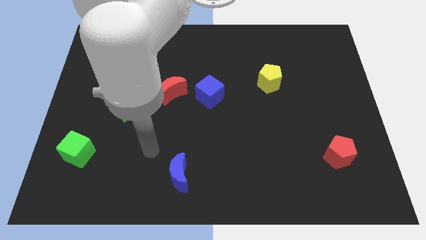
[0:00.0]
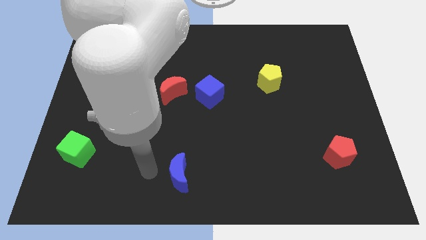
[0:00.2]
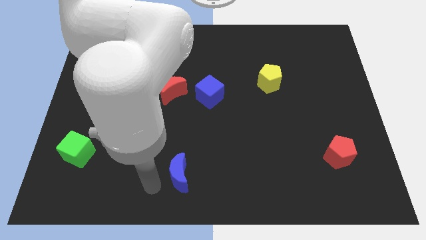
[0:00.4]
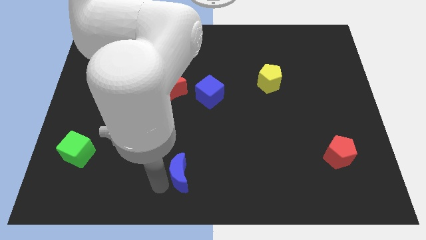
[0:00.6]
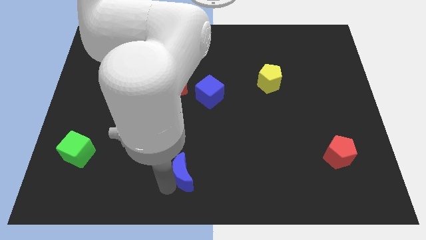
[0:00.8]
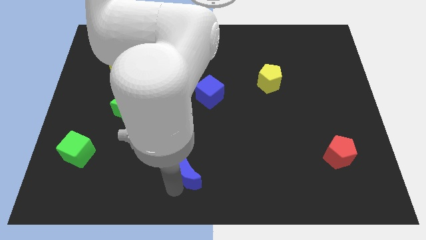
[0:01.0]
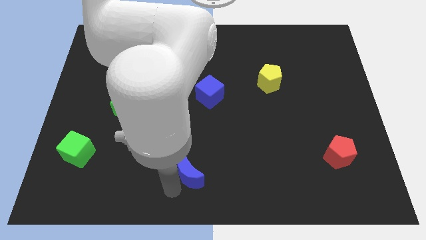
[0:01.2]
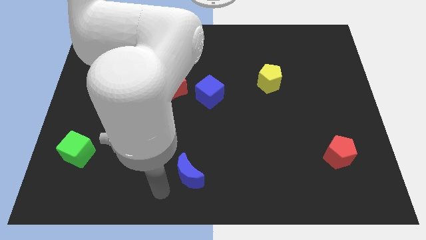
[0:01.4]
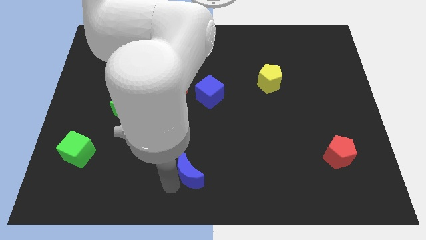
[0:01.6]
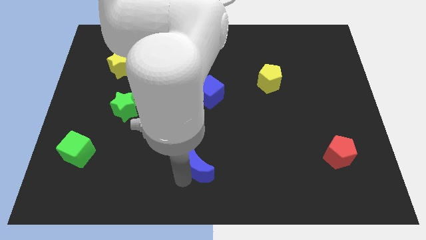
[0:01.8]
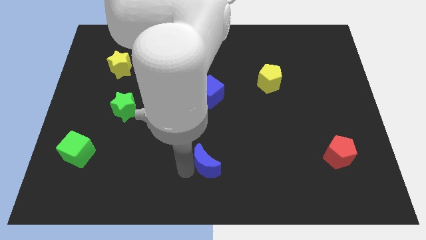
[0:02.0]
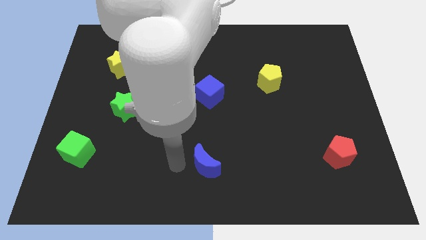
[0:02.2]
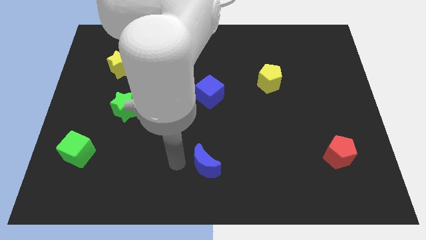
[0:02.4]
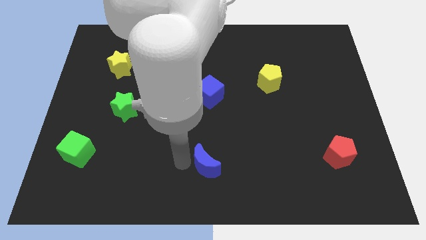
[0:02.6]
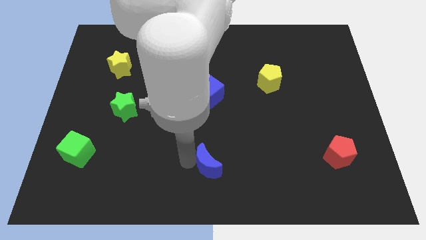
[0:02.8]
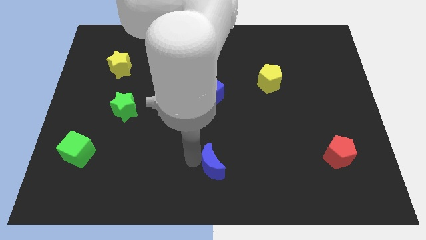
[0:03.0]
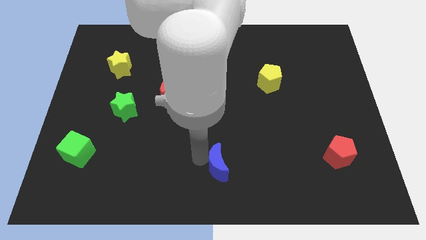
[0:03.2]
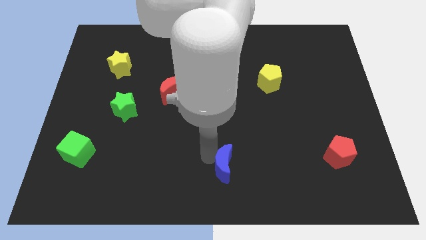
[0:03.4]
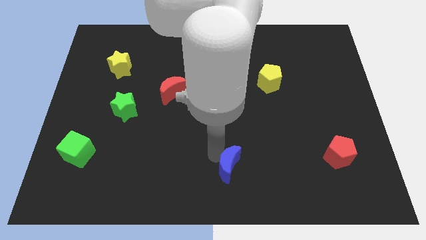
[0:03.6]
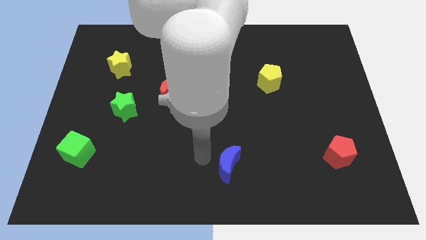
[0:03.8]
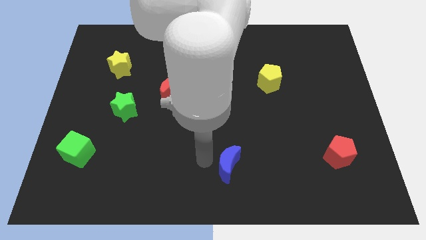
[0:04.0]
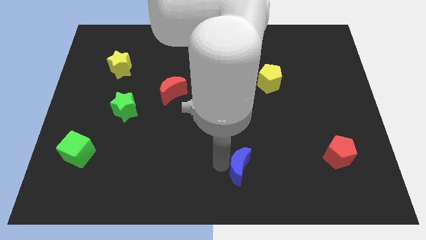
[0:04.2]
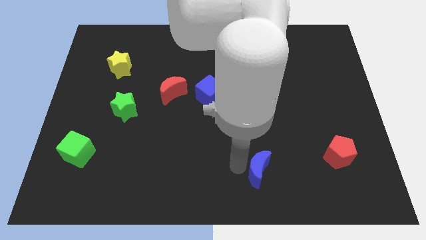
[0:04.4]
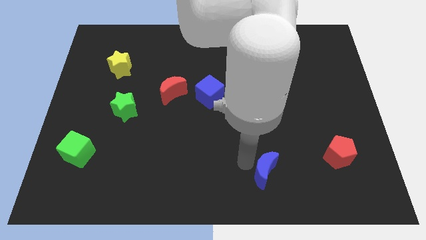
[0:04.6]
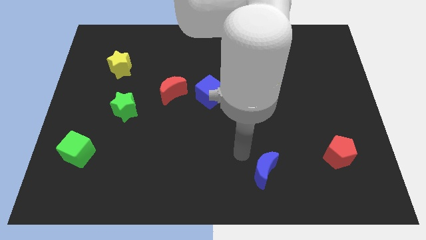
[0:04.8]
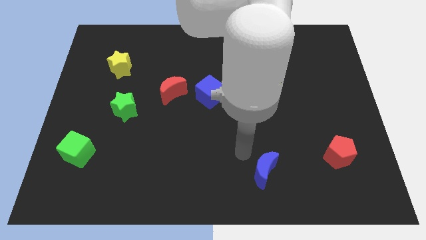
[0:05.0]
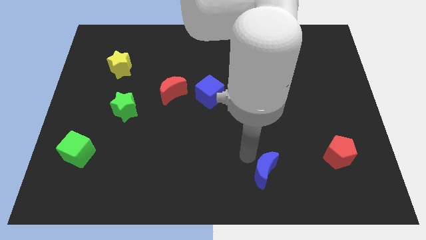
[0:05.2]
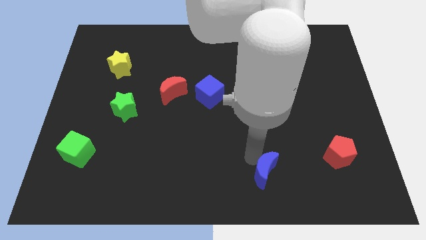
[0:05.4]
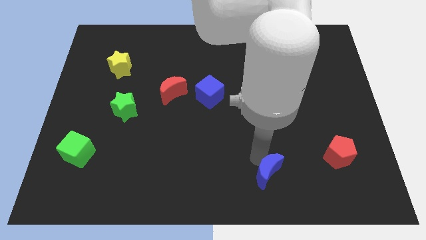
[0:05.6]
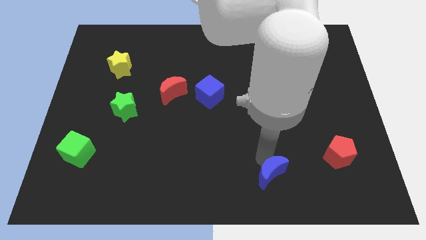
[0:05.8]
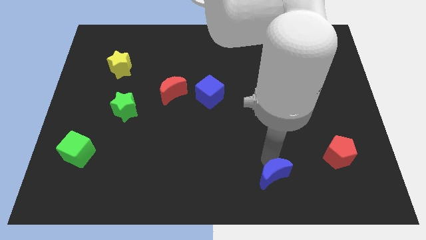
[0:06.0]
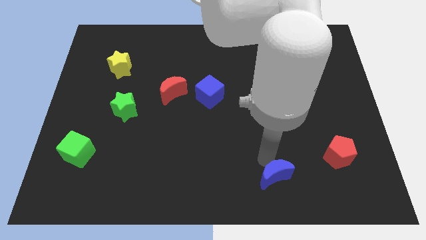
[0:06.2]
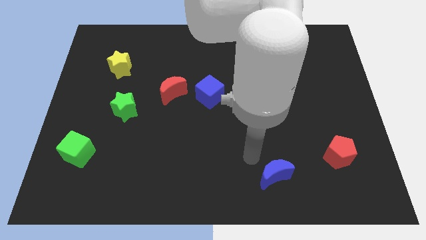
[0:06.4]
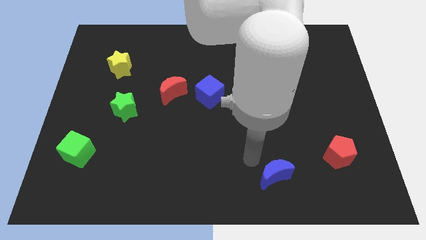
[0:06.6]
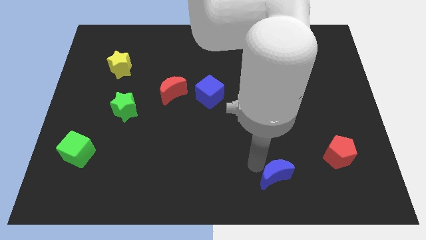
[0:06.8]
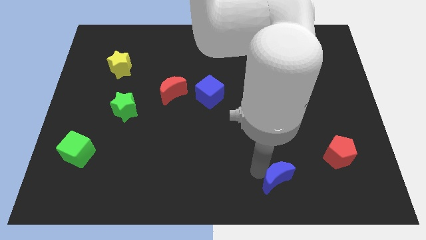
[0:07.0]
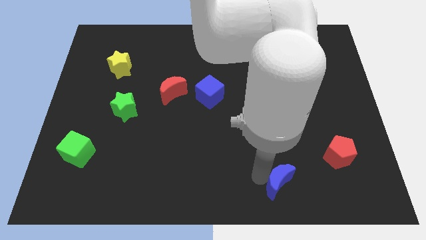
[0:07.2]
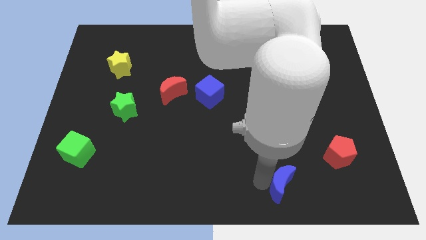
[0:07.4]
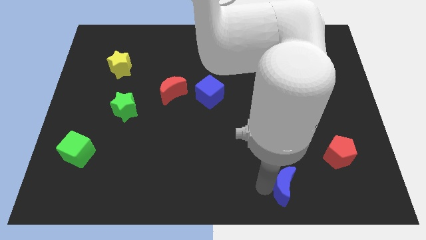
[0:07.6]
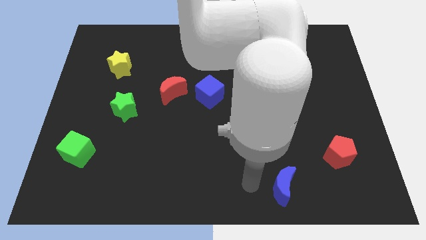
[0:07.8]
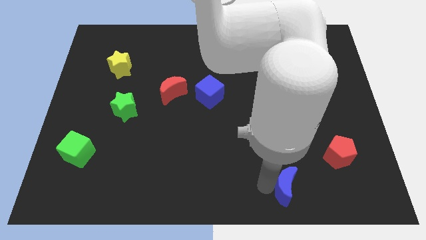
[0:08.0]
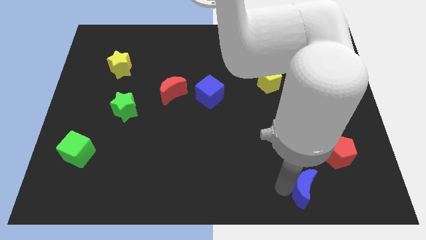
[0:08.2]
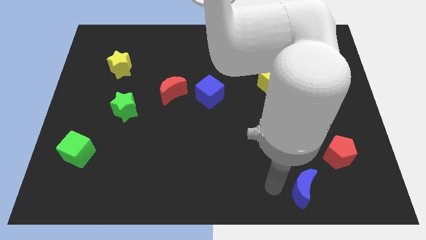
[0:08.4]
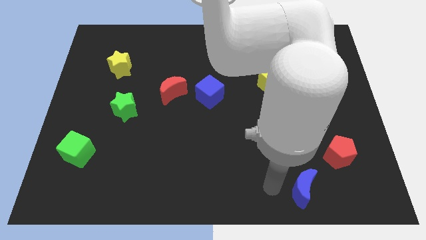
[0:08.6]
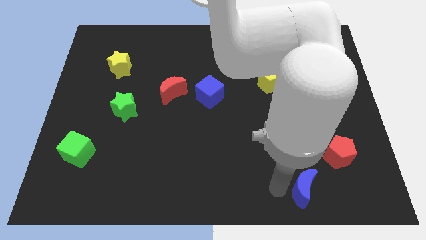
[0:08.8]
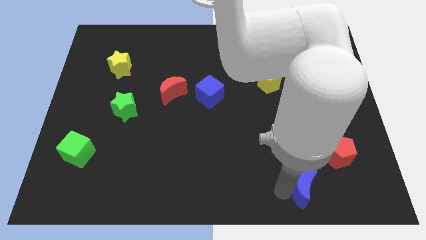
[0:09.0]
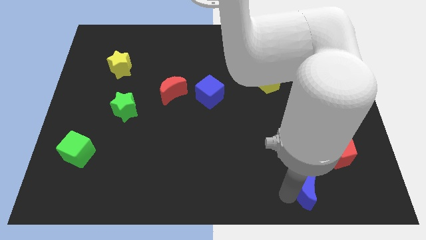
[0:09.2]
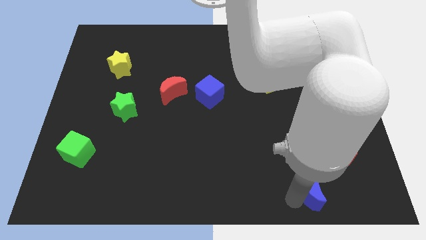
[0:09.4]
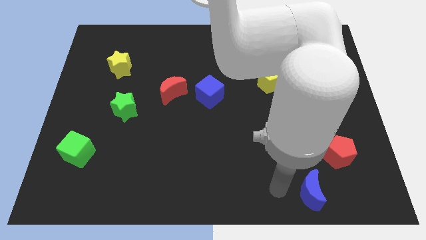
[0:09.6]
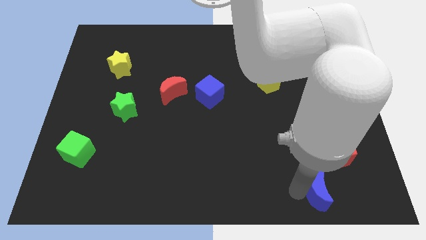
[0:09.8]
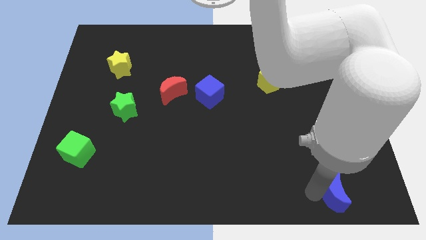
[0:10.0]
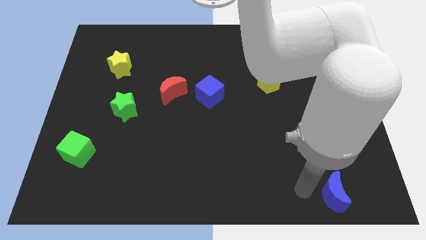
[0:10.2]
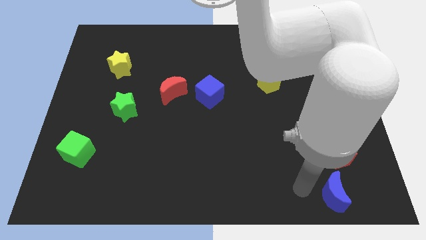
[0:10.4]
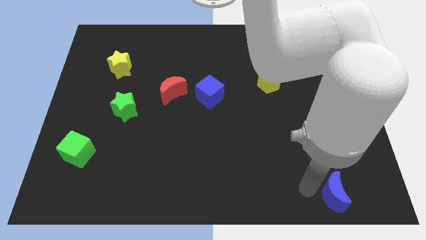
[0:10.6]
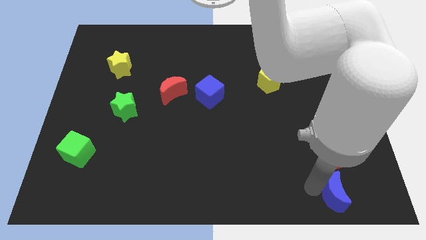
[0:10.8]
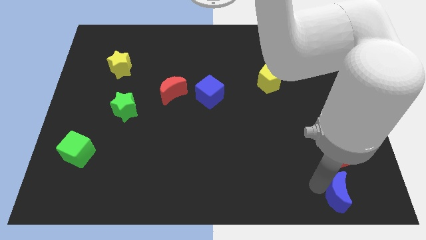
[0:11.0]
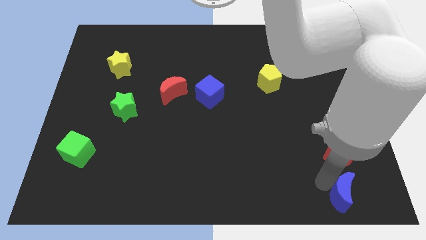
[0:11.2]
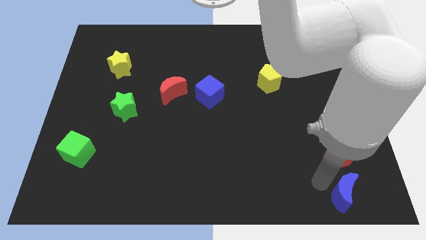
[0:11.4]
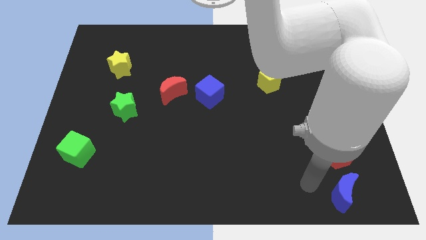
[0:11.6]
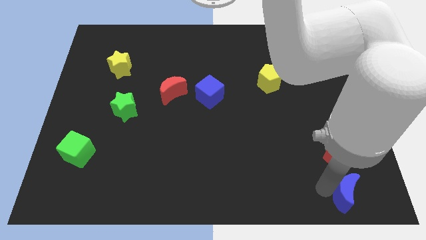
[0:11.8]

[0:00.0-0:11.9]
move the blue moon to the bottom right of the board
